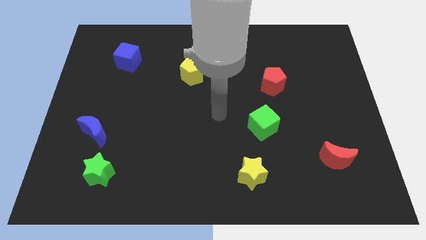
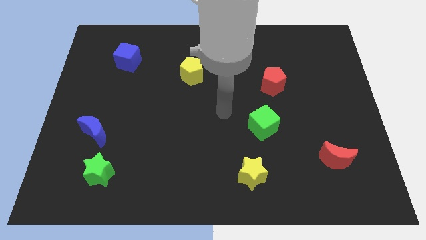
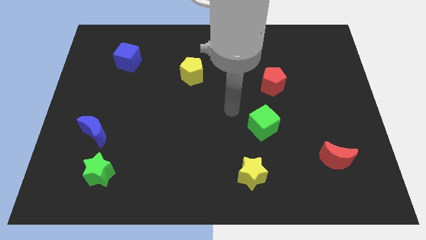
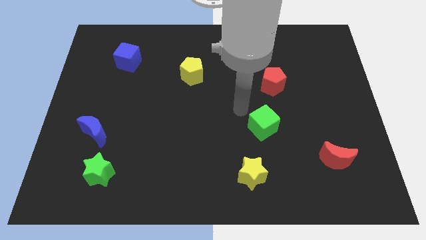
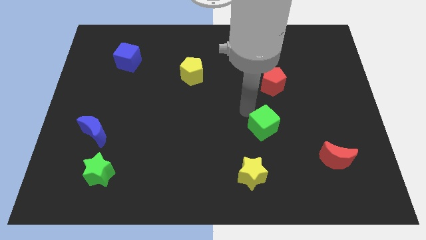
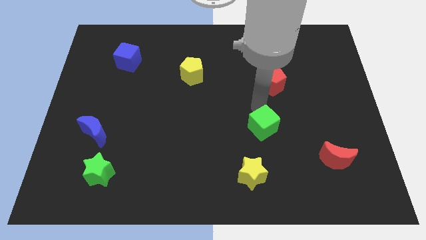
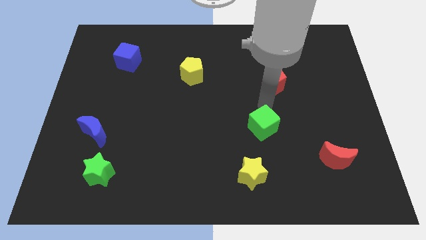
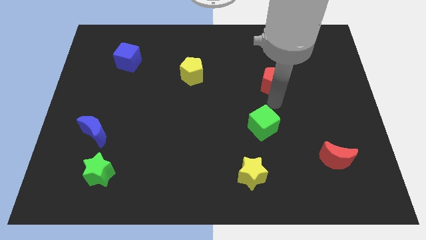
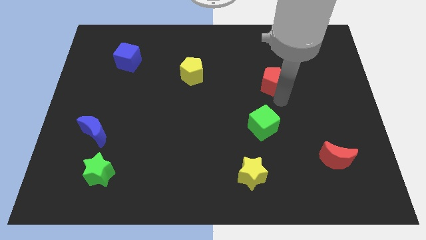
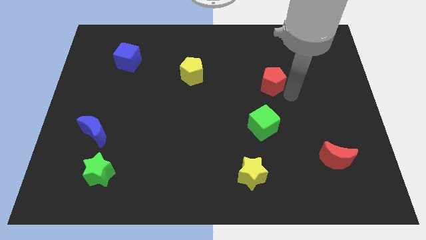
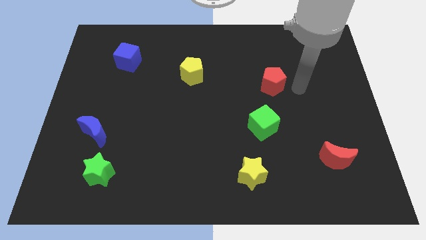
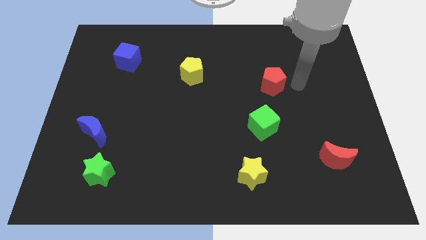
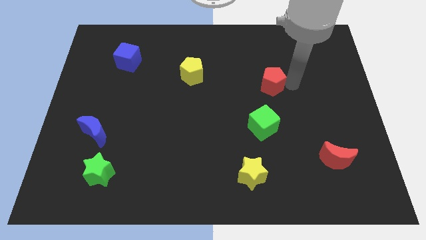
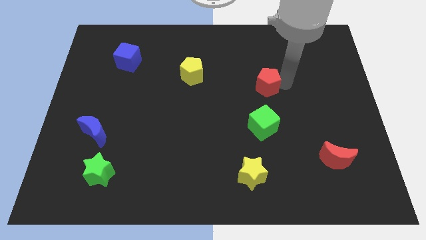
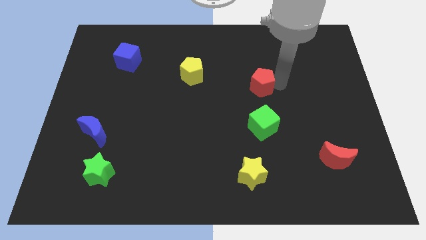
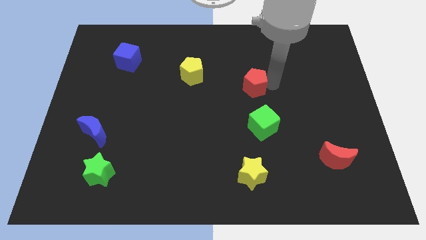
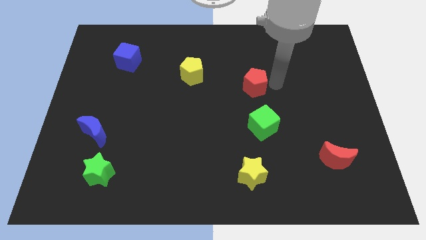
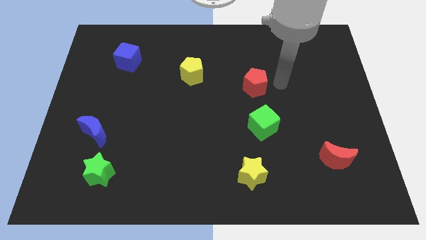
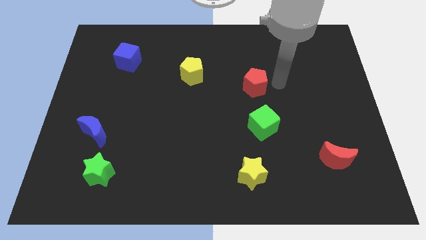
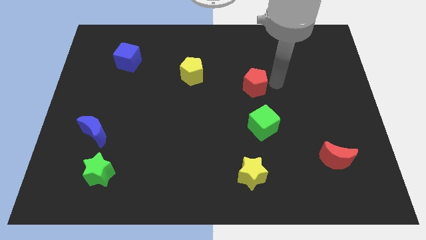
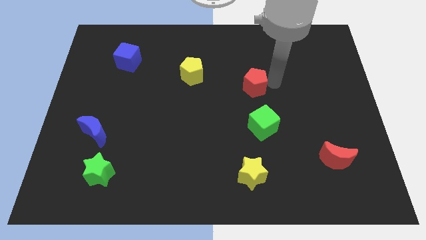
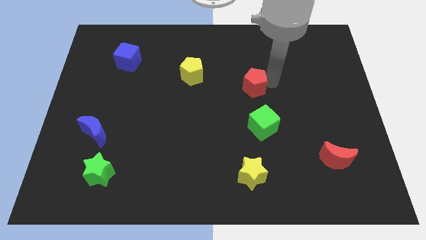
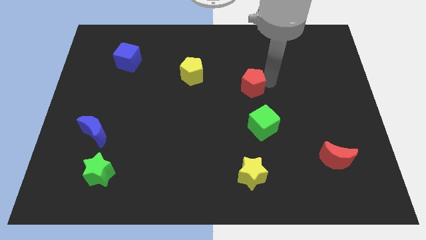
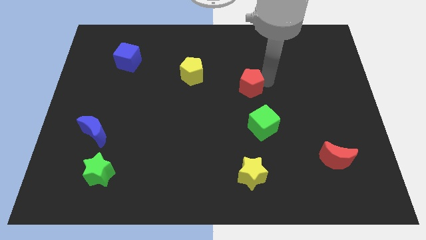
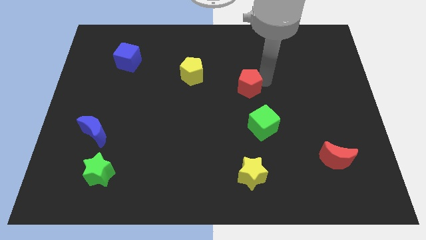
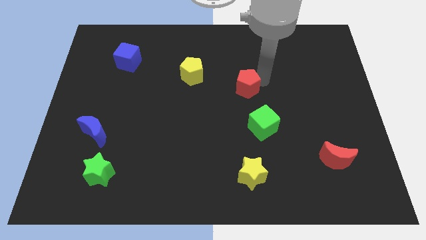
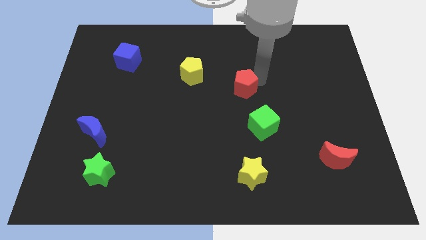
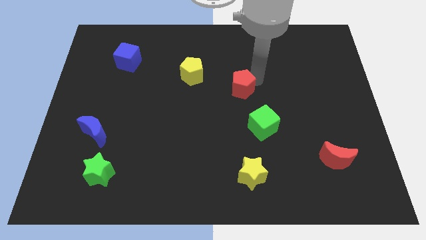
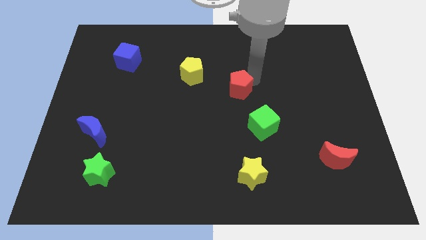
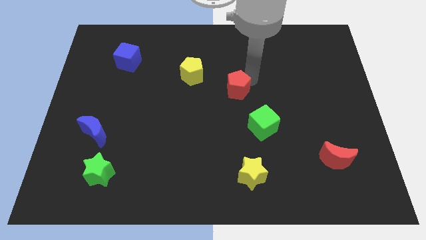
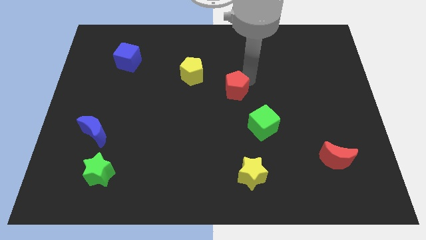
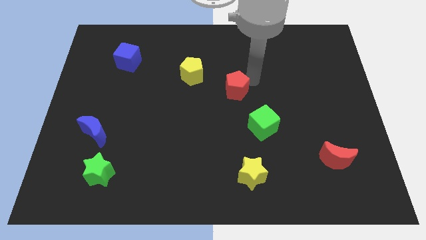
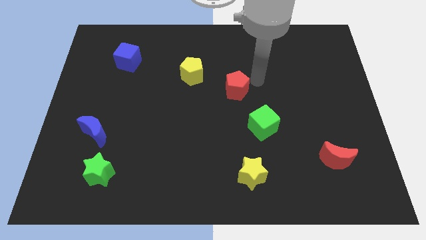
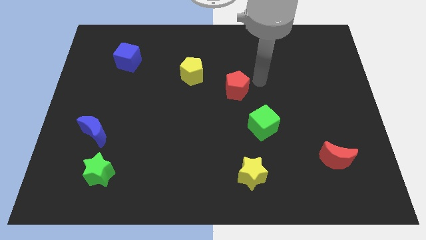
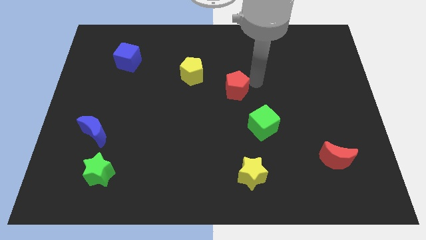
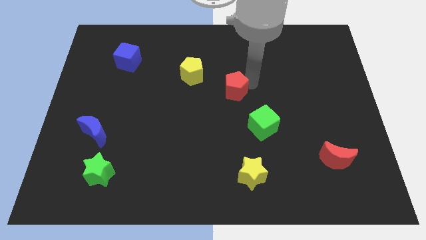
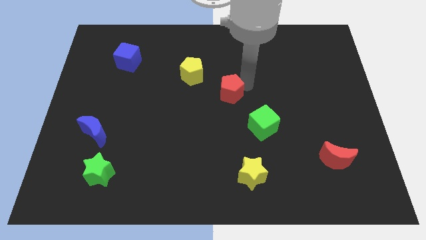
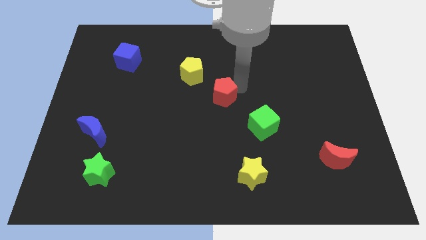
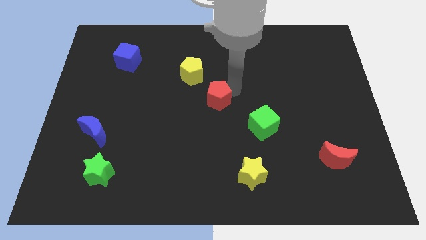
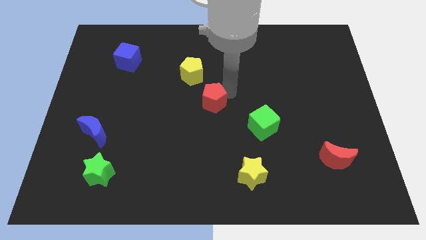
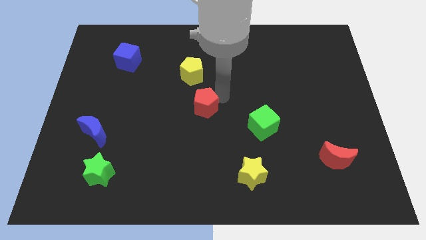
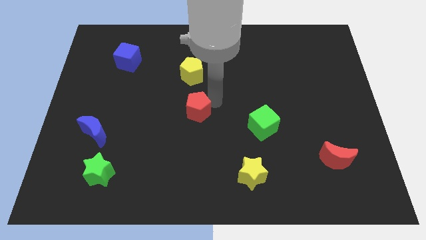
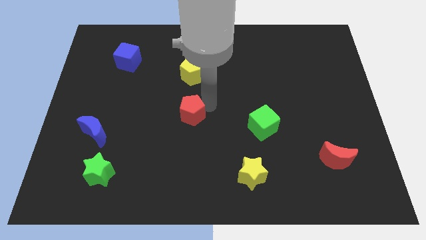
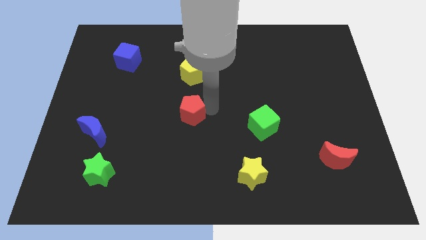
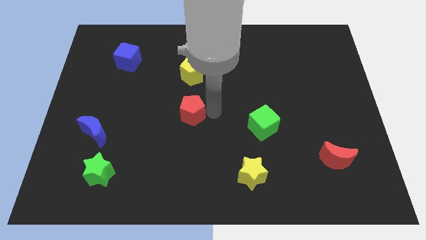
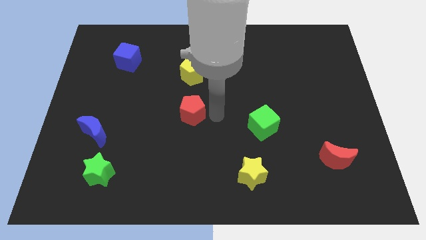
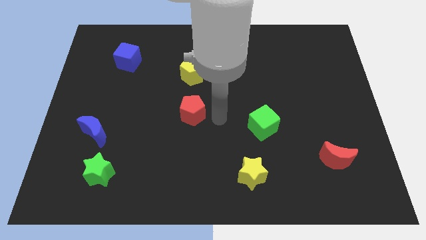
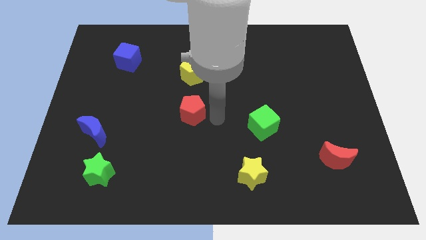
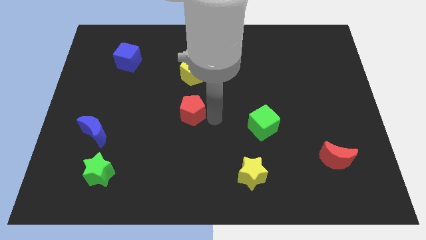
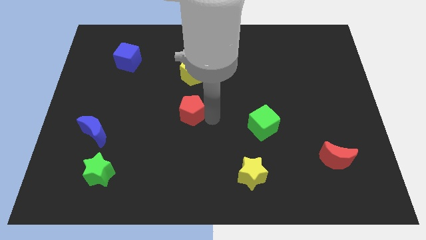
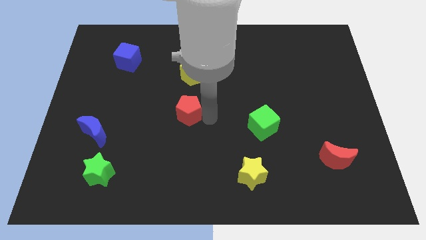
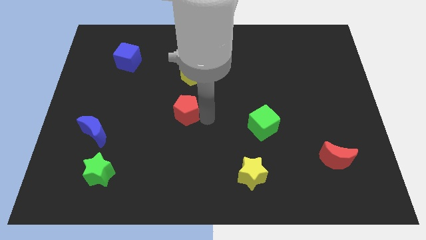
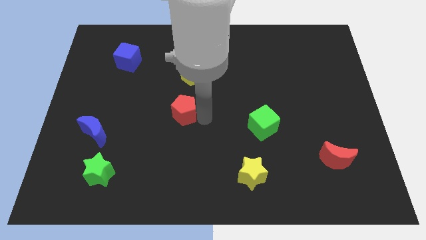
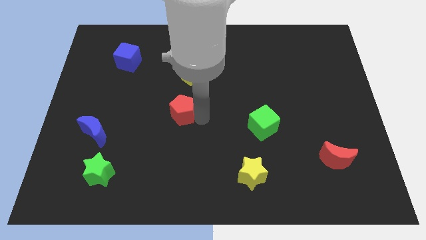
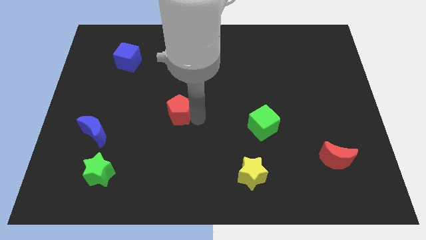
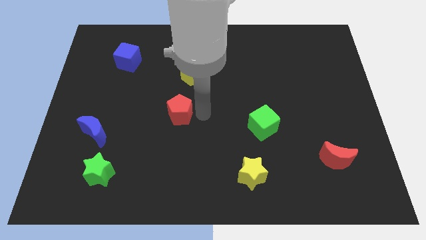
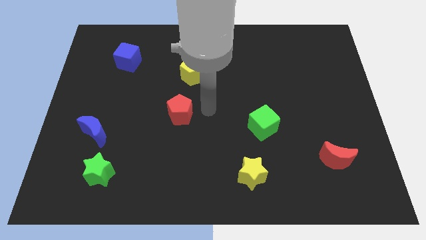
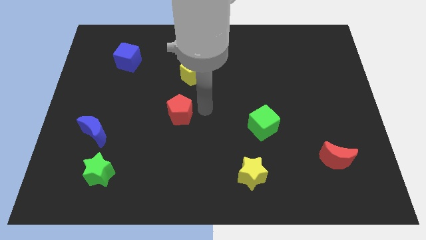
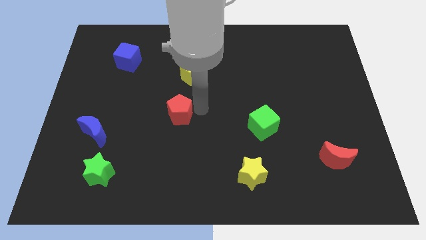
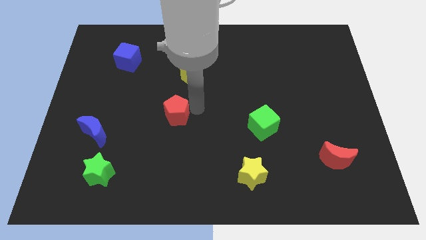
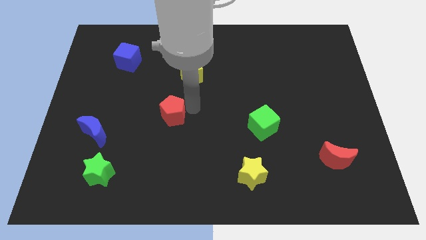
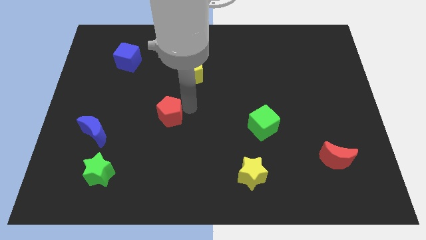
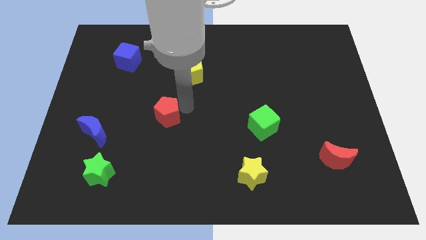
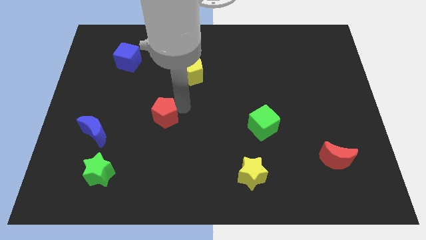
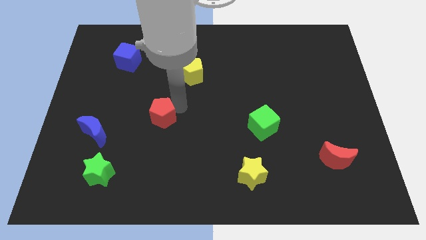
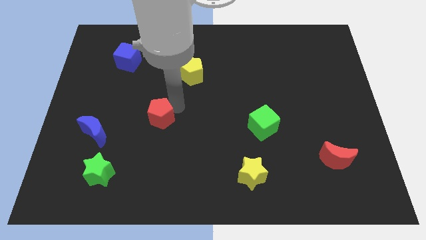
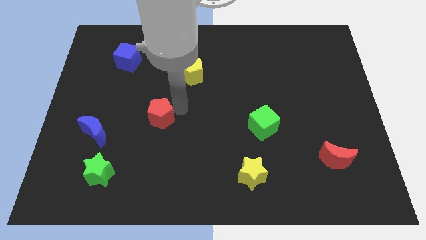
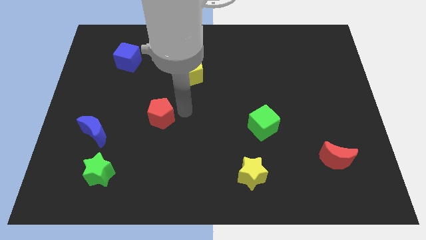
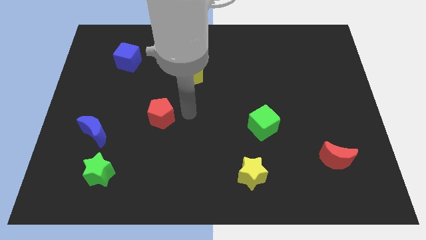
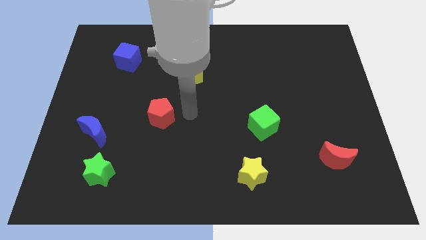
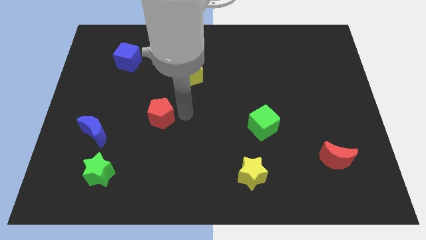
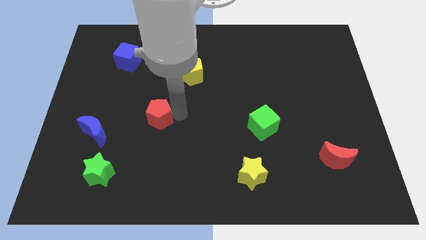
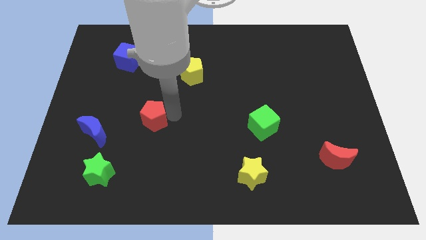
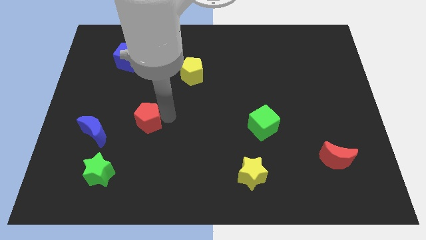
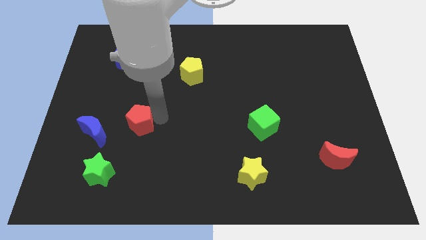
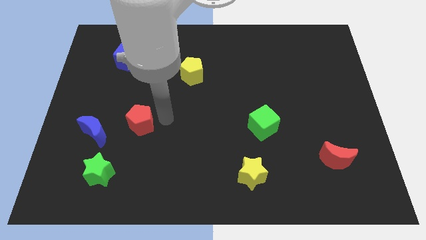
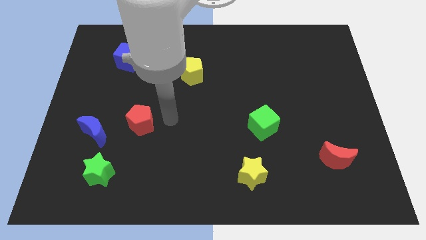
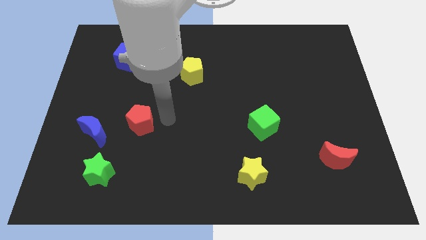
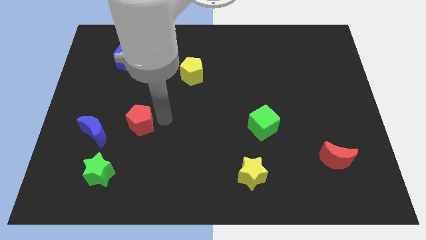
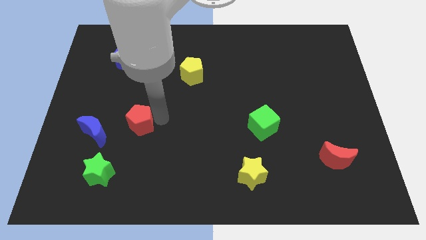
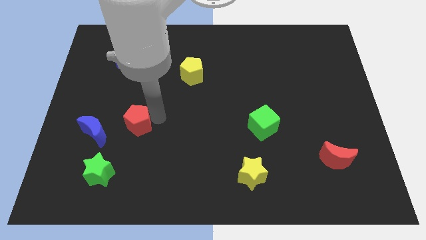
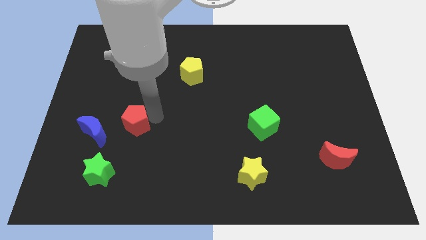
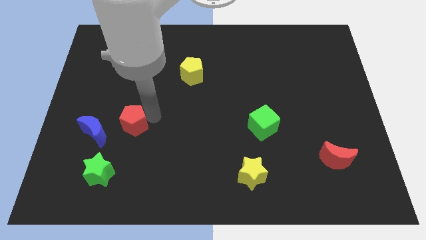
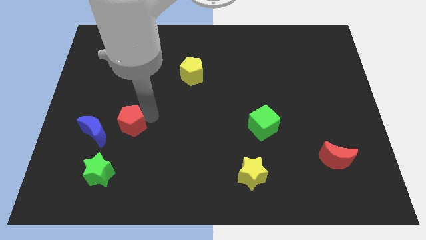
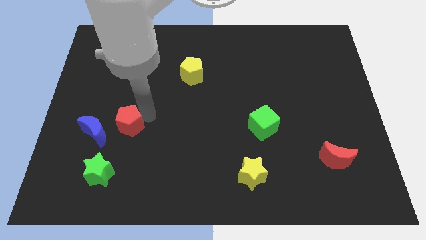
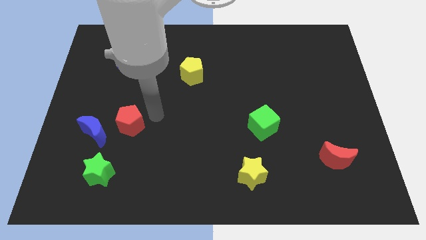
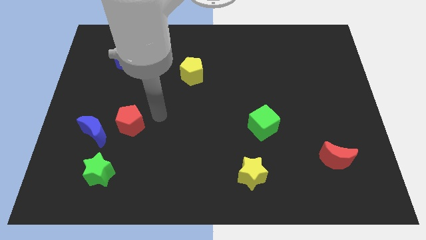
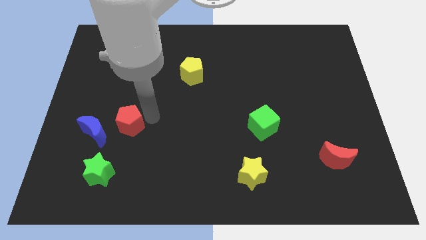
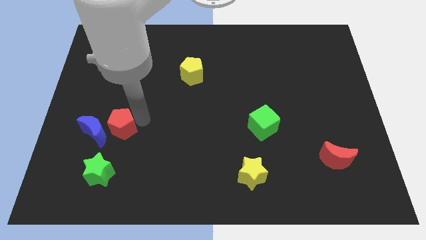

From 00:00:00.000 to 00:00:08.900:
put the red pentagon to the blue moon
